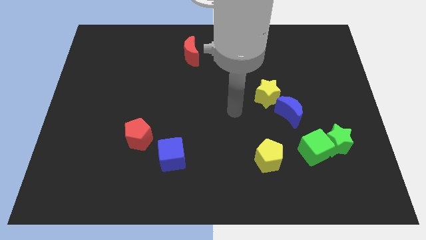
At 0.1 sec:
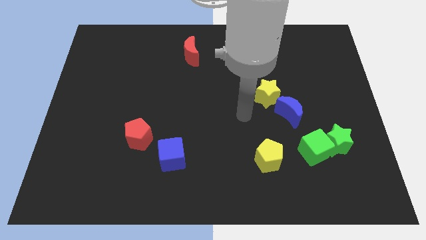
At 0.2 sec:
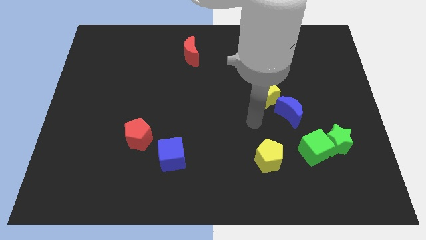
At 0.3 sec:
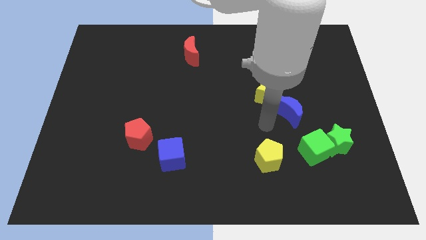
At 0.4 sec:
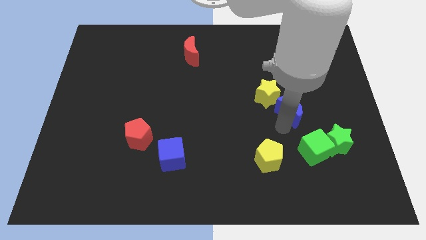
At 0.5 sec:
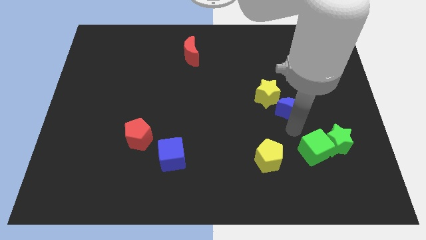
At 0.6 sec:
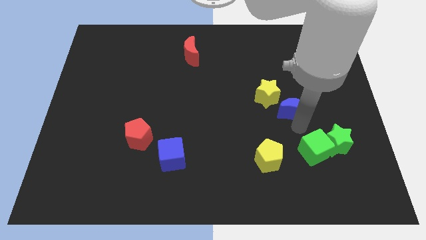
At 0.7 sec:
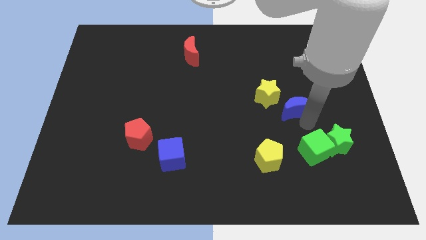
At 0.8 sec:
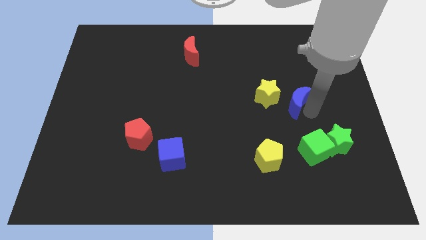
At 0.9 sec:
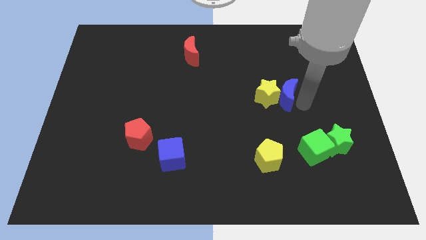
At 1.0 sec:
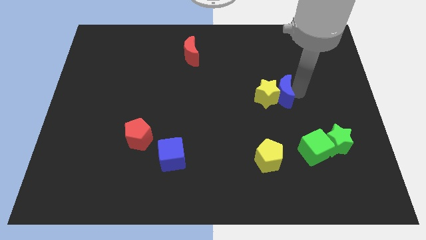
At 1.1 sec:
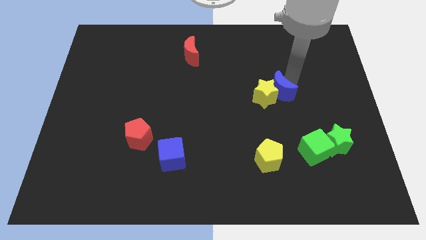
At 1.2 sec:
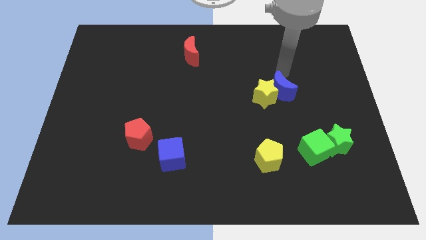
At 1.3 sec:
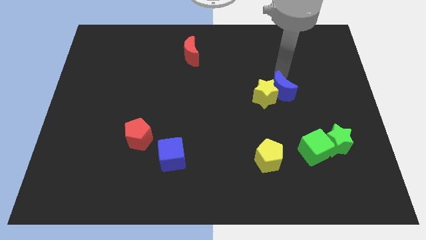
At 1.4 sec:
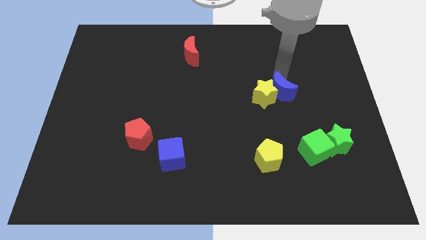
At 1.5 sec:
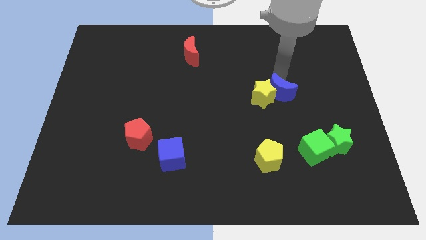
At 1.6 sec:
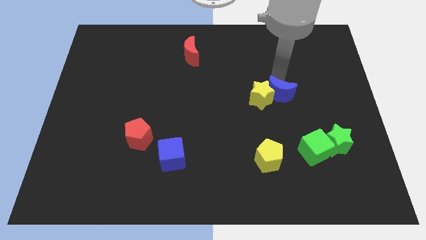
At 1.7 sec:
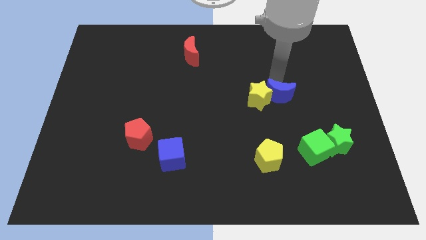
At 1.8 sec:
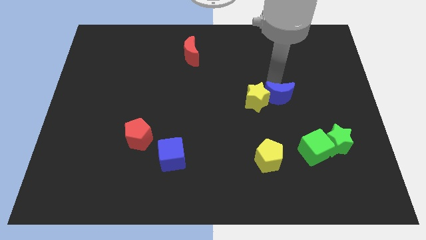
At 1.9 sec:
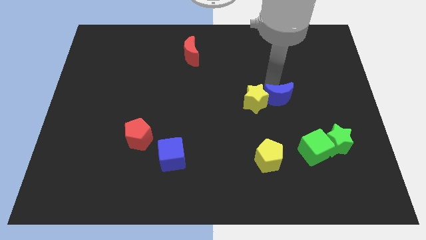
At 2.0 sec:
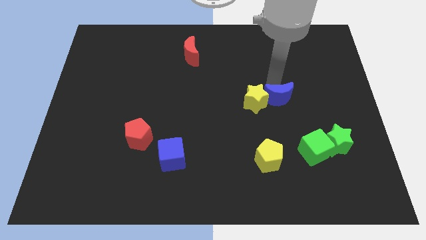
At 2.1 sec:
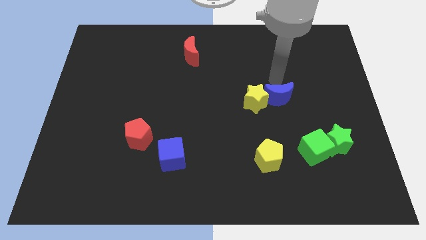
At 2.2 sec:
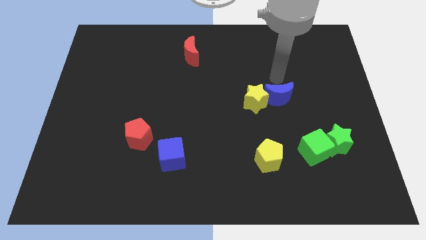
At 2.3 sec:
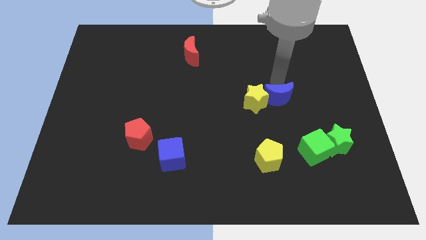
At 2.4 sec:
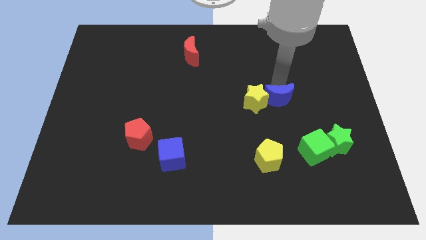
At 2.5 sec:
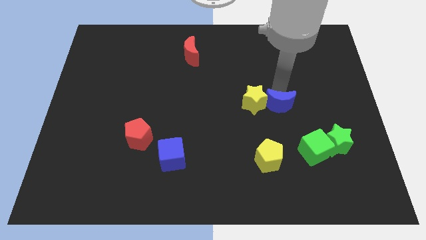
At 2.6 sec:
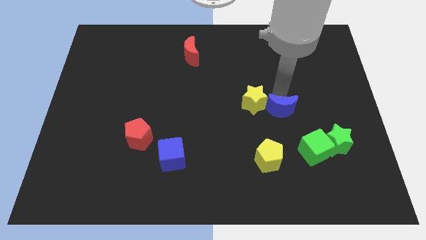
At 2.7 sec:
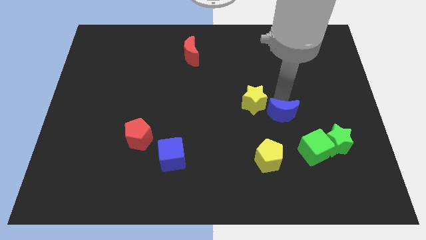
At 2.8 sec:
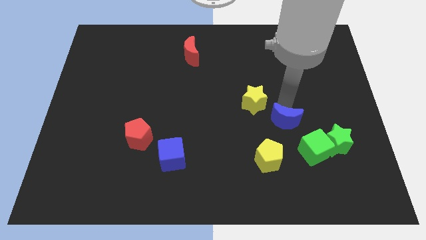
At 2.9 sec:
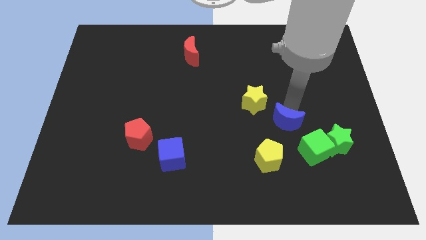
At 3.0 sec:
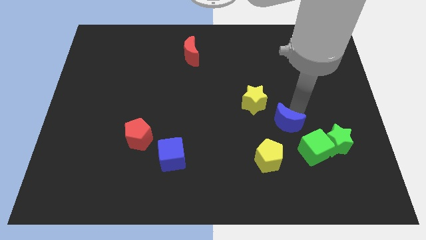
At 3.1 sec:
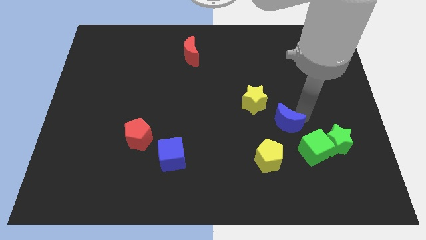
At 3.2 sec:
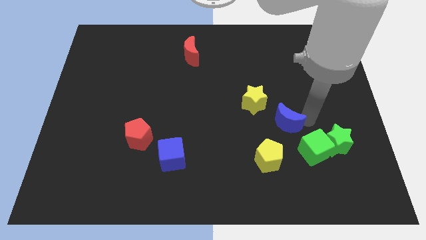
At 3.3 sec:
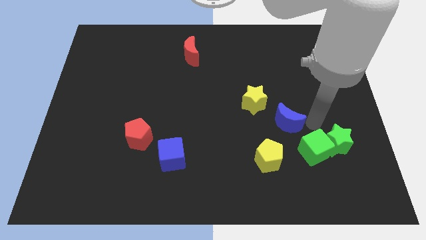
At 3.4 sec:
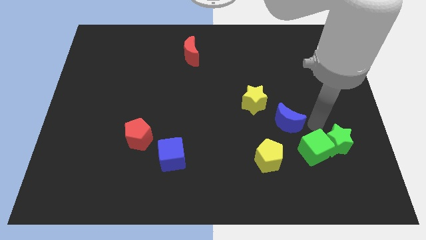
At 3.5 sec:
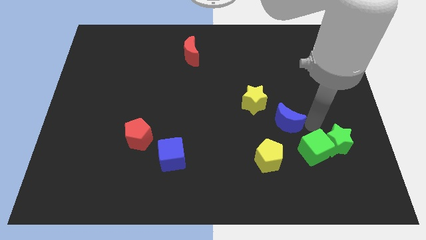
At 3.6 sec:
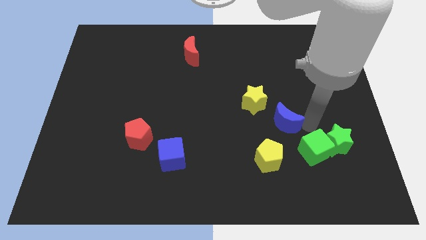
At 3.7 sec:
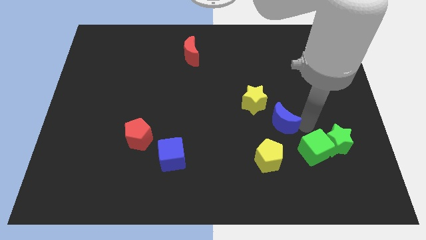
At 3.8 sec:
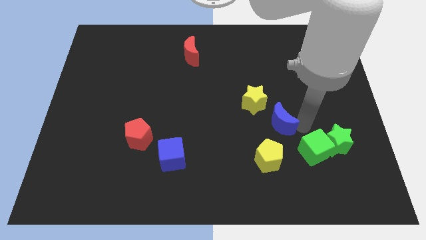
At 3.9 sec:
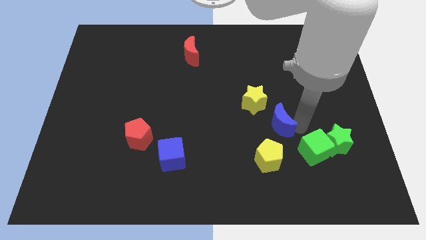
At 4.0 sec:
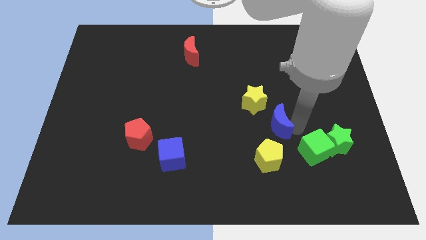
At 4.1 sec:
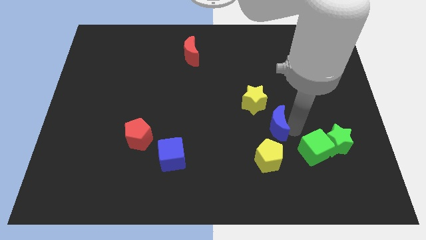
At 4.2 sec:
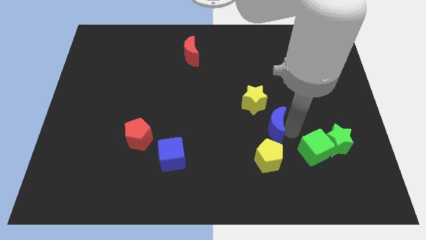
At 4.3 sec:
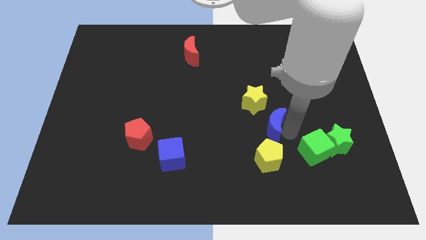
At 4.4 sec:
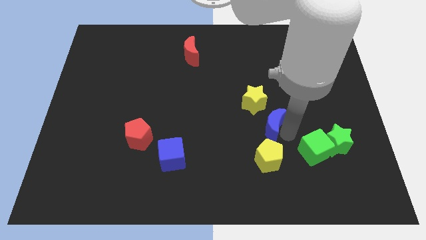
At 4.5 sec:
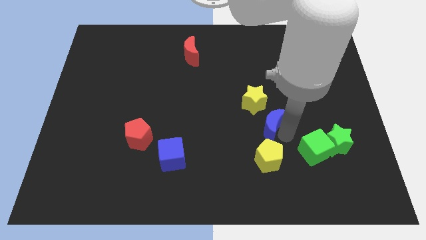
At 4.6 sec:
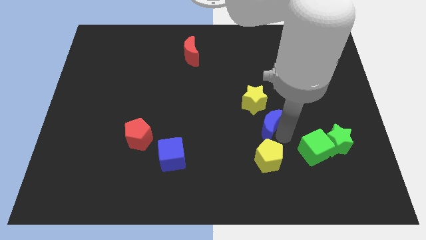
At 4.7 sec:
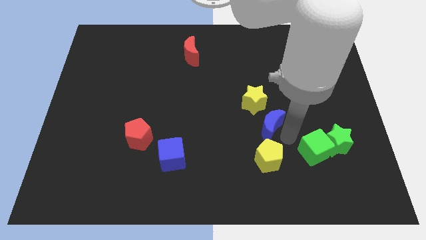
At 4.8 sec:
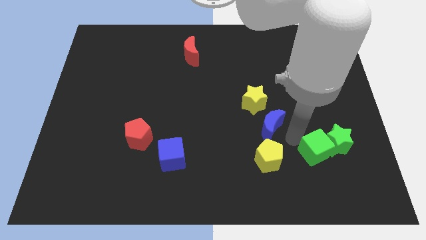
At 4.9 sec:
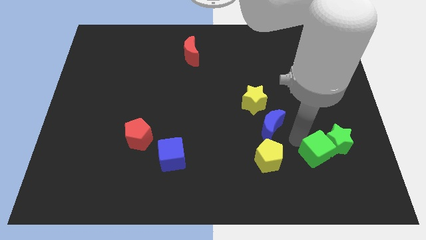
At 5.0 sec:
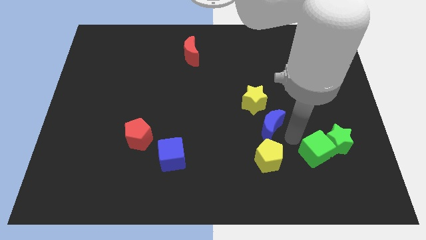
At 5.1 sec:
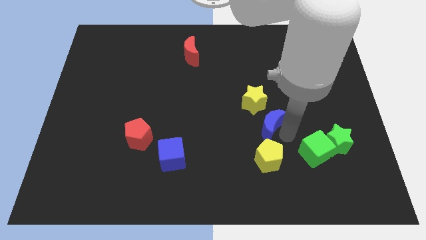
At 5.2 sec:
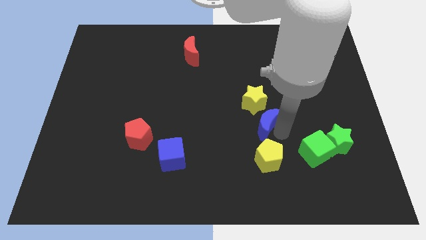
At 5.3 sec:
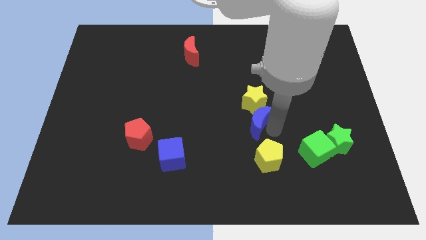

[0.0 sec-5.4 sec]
move the blue moon to the middle

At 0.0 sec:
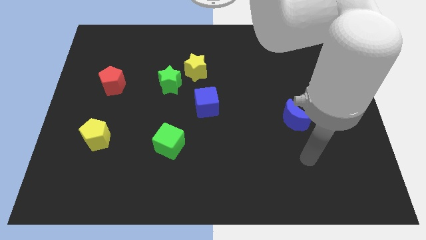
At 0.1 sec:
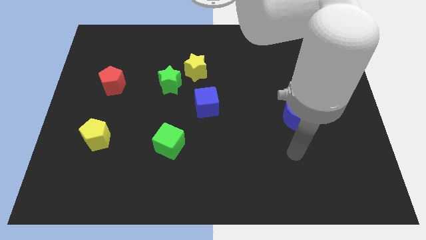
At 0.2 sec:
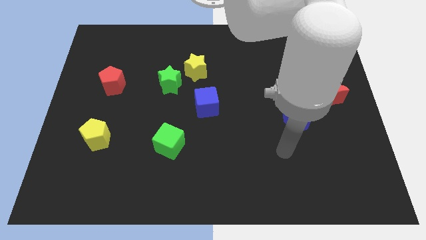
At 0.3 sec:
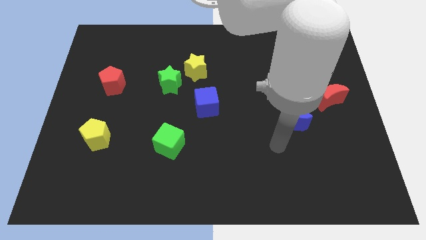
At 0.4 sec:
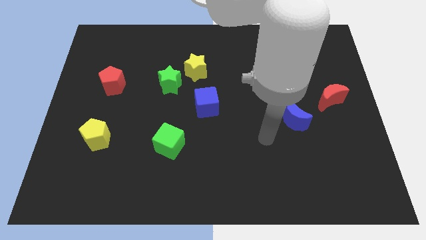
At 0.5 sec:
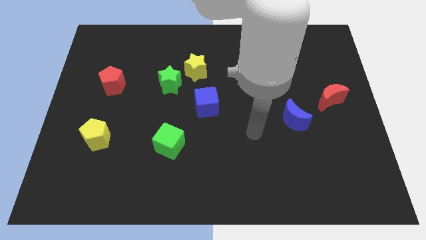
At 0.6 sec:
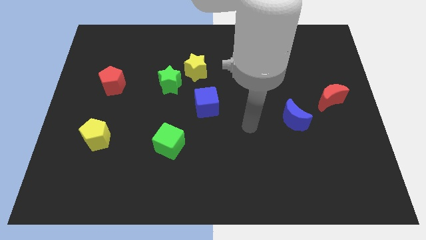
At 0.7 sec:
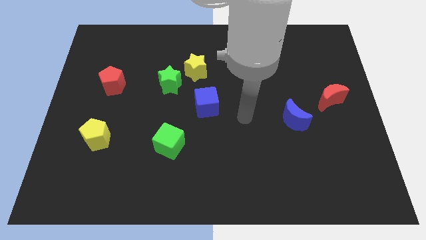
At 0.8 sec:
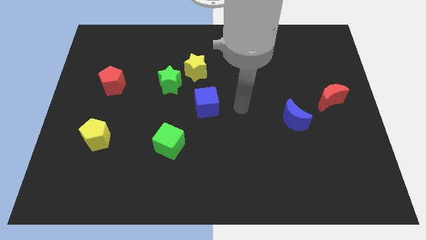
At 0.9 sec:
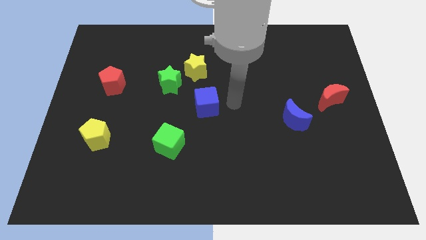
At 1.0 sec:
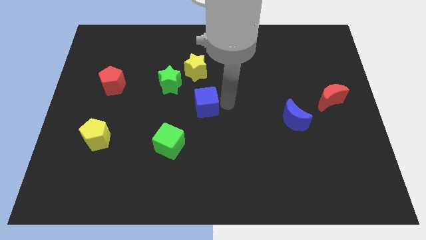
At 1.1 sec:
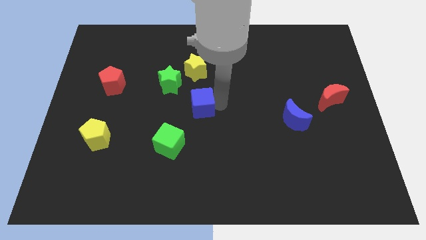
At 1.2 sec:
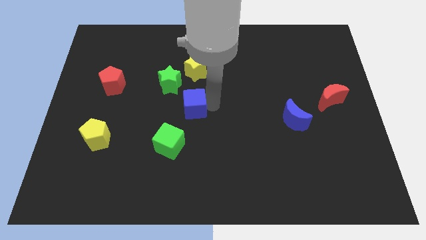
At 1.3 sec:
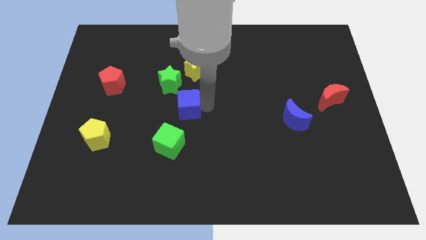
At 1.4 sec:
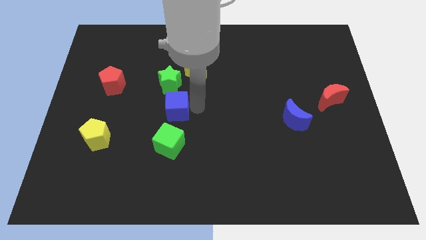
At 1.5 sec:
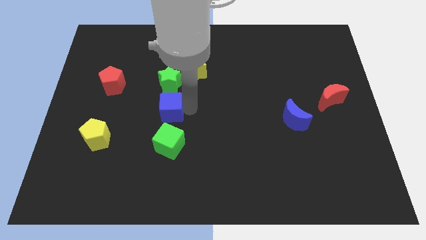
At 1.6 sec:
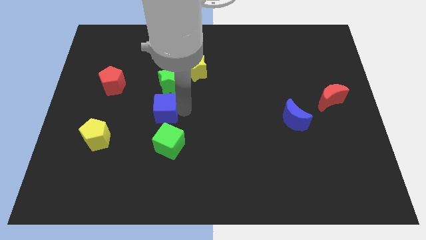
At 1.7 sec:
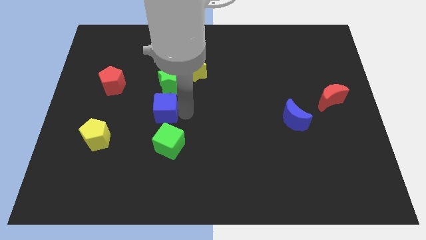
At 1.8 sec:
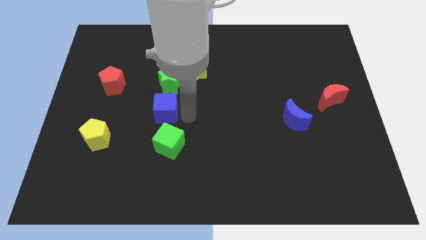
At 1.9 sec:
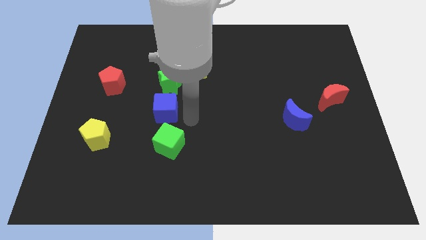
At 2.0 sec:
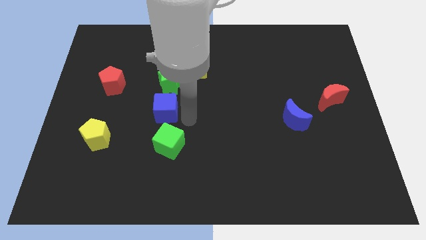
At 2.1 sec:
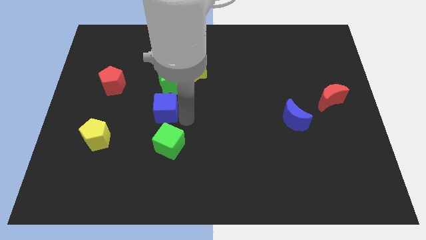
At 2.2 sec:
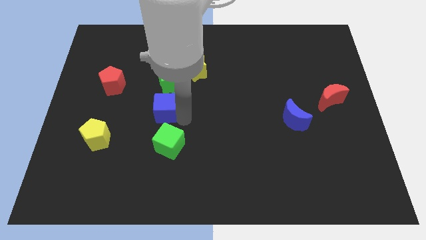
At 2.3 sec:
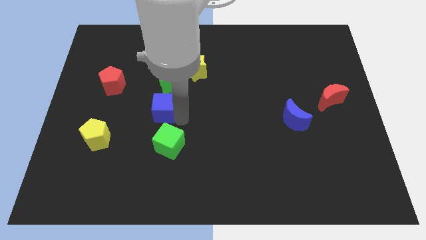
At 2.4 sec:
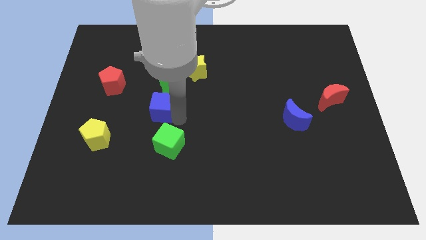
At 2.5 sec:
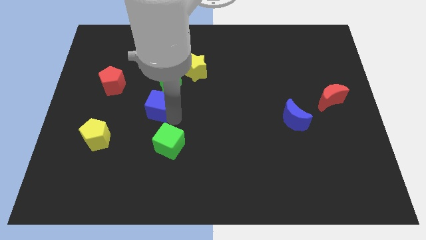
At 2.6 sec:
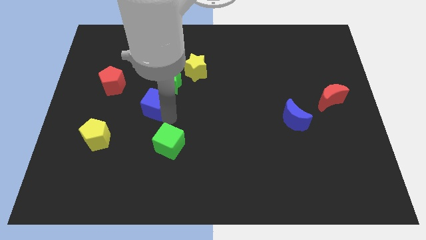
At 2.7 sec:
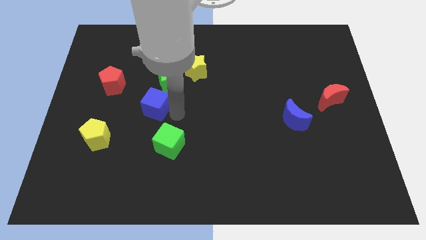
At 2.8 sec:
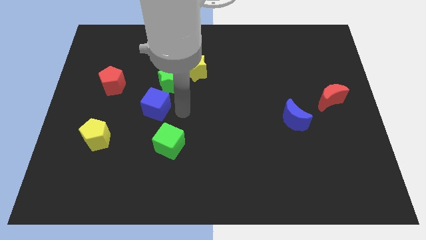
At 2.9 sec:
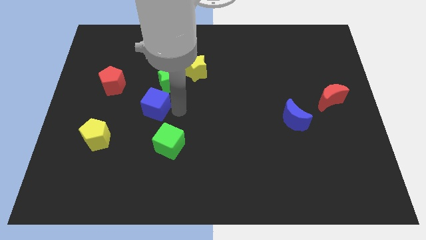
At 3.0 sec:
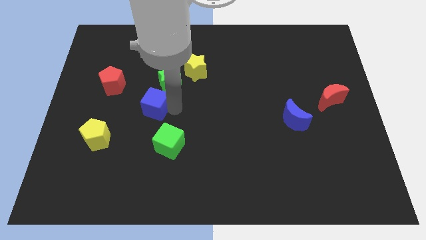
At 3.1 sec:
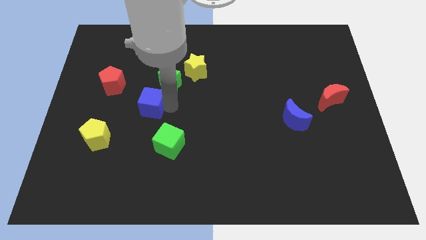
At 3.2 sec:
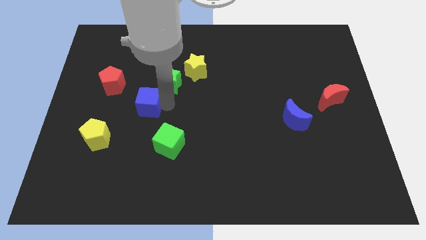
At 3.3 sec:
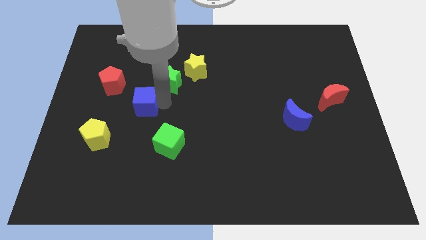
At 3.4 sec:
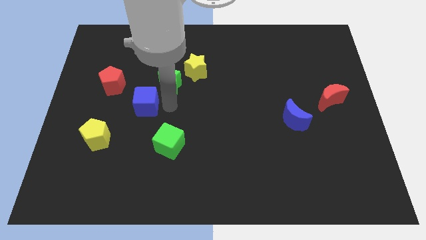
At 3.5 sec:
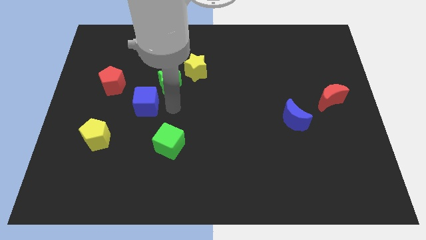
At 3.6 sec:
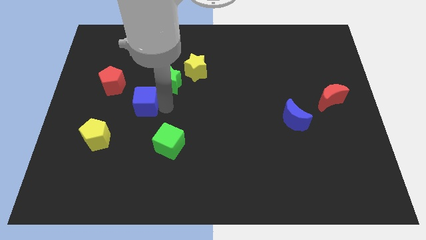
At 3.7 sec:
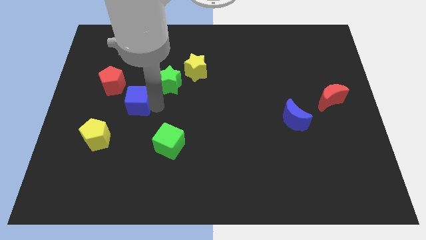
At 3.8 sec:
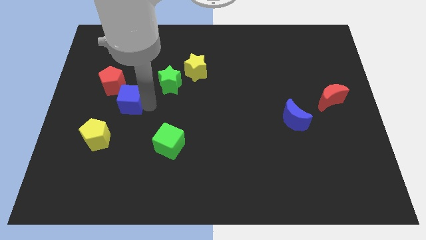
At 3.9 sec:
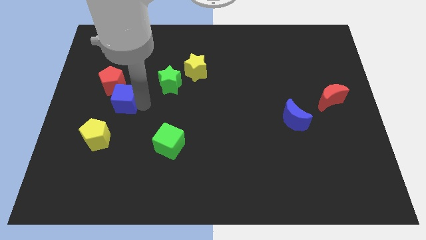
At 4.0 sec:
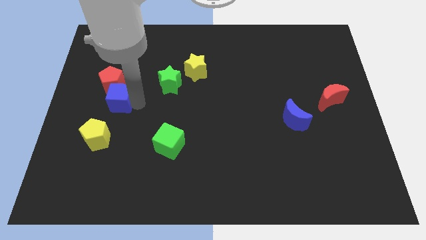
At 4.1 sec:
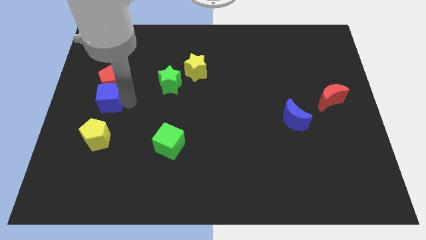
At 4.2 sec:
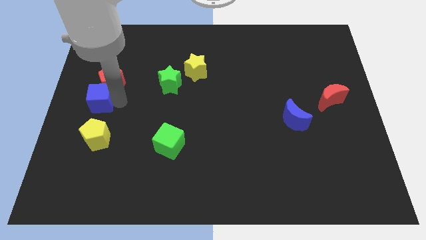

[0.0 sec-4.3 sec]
push the blue cube to the left side
